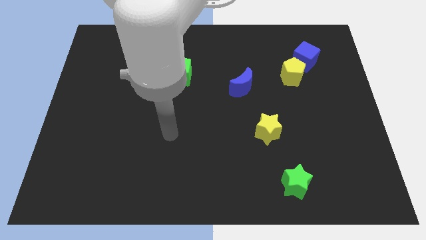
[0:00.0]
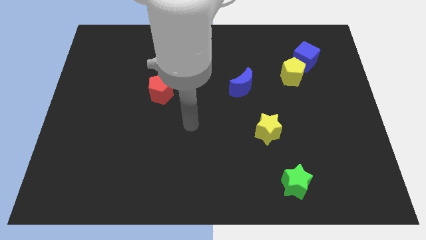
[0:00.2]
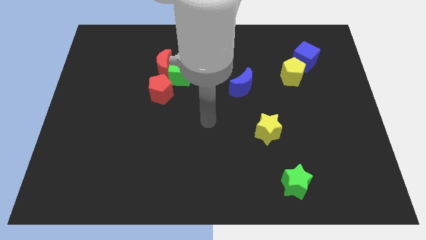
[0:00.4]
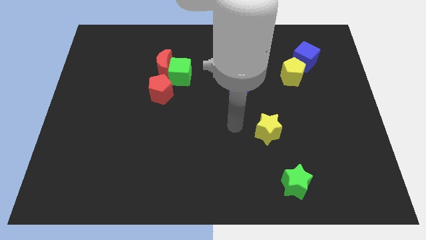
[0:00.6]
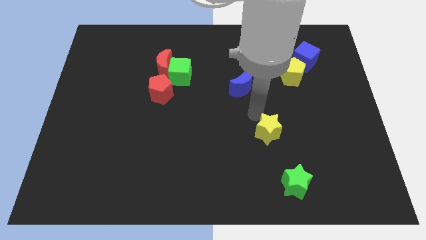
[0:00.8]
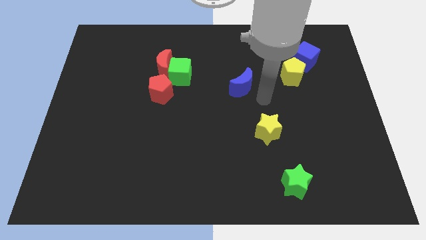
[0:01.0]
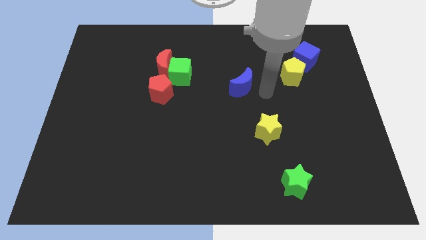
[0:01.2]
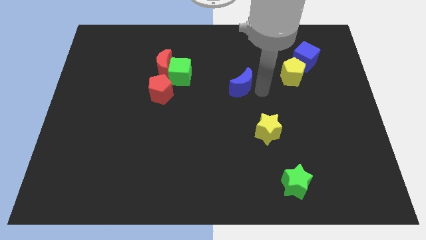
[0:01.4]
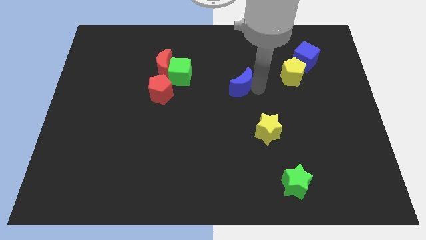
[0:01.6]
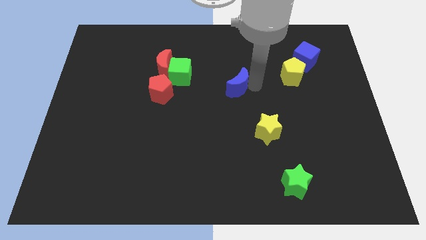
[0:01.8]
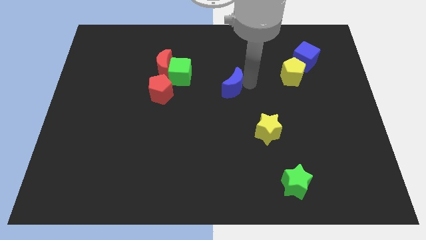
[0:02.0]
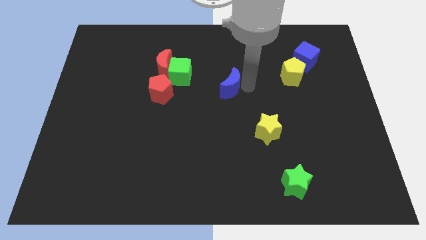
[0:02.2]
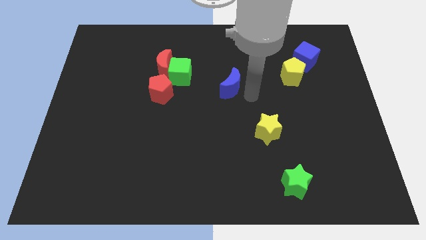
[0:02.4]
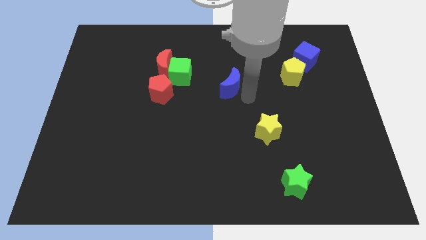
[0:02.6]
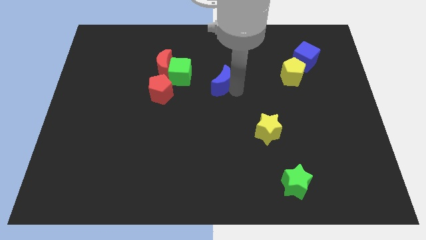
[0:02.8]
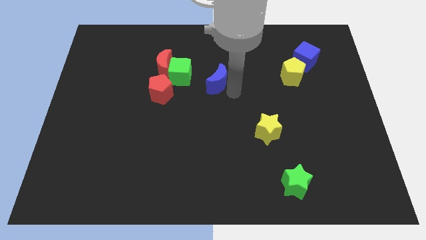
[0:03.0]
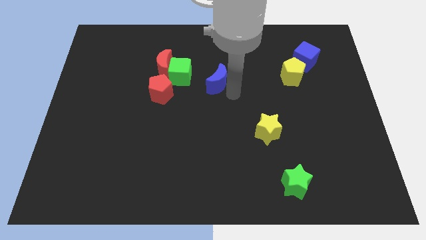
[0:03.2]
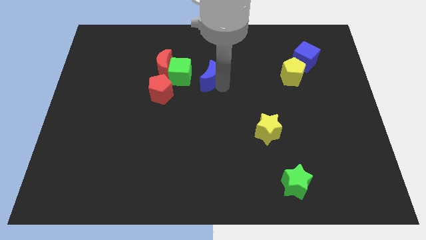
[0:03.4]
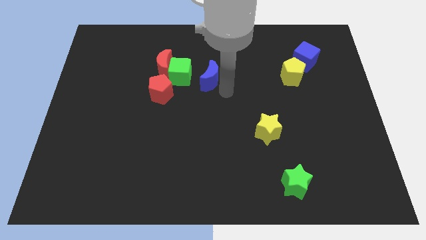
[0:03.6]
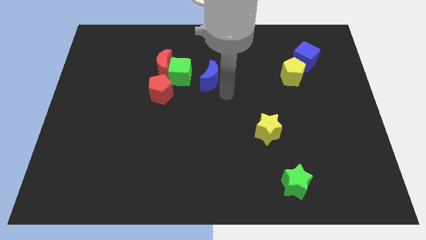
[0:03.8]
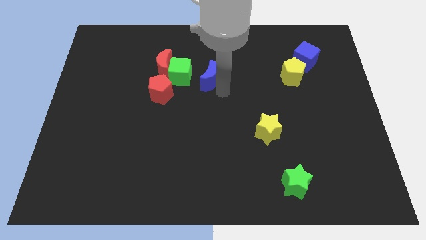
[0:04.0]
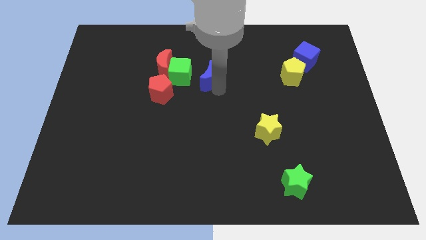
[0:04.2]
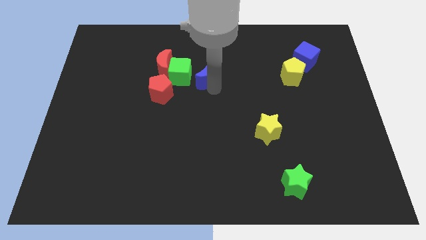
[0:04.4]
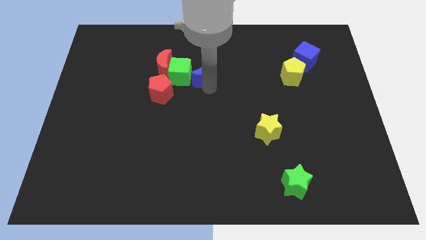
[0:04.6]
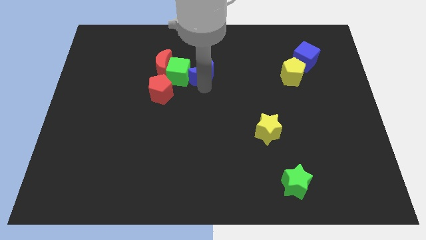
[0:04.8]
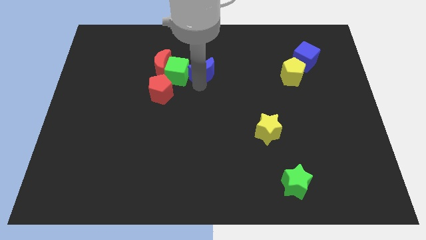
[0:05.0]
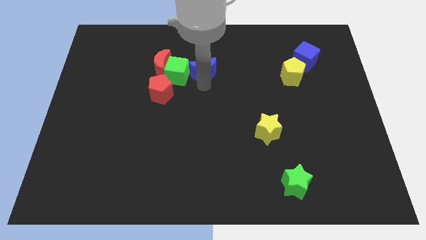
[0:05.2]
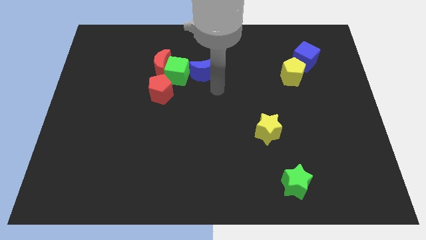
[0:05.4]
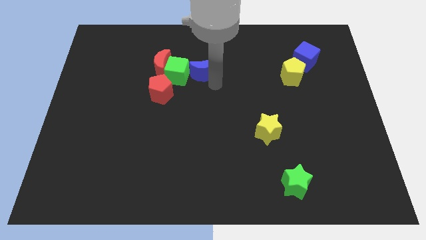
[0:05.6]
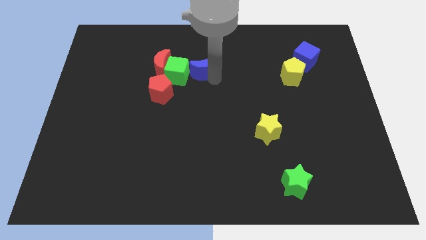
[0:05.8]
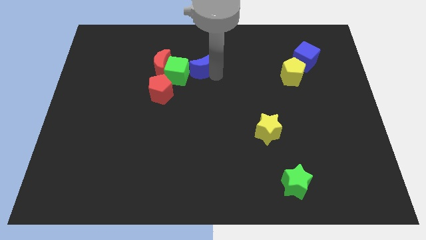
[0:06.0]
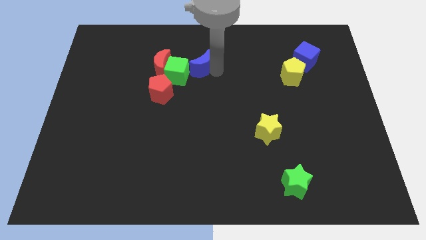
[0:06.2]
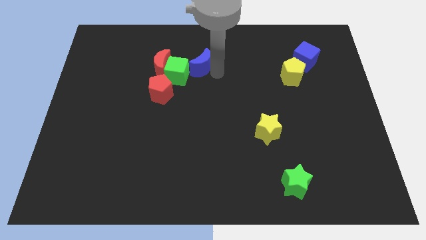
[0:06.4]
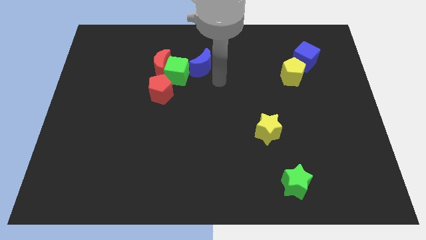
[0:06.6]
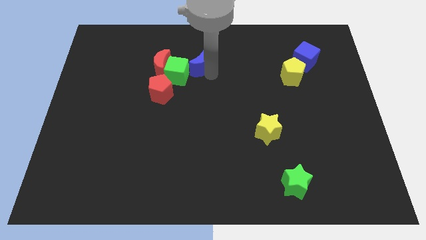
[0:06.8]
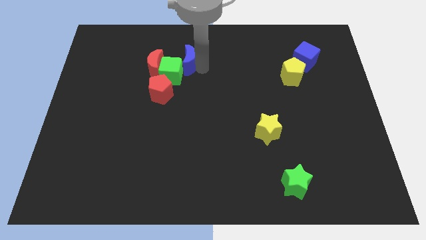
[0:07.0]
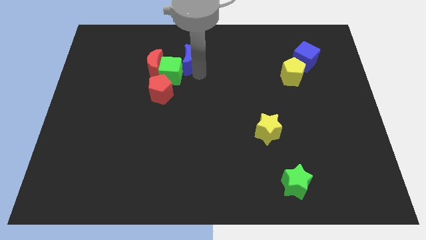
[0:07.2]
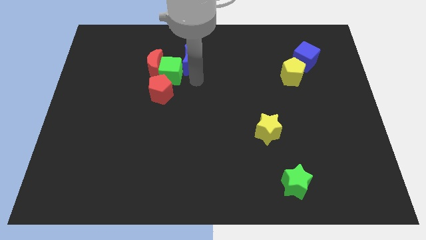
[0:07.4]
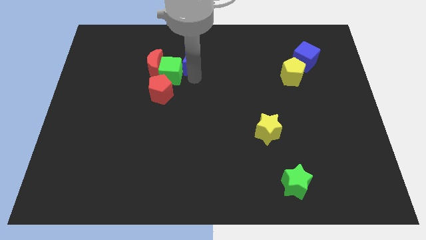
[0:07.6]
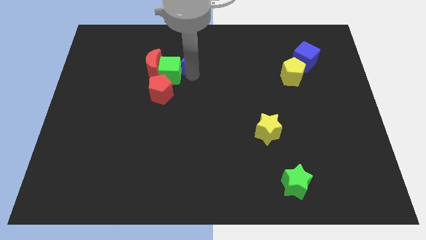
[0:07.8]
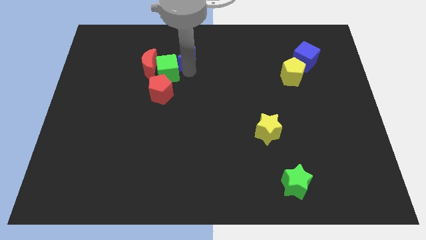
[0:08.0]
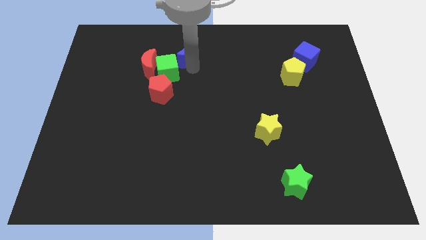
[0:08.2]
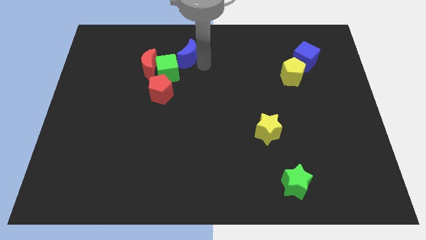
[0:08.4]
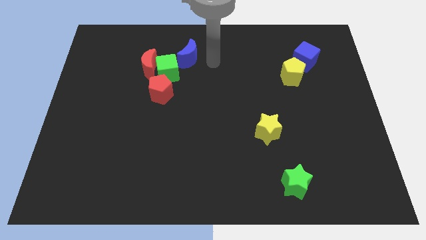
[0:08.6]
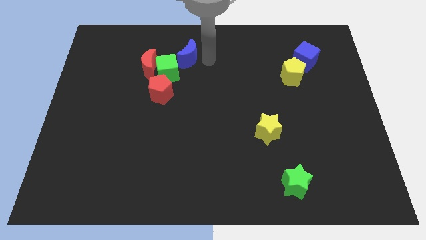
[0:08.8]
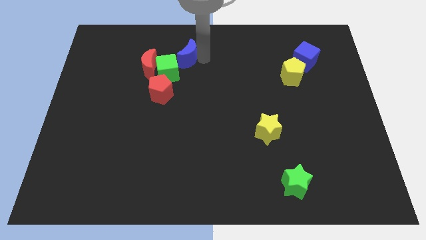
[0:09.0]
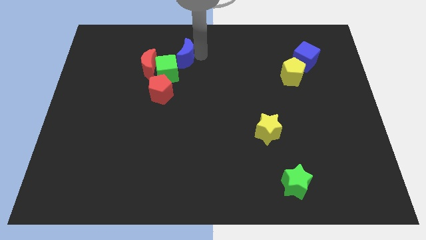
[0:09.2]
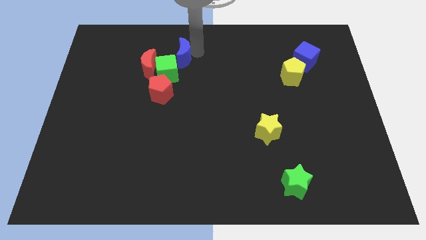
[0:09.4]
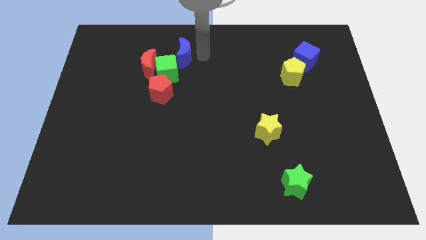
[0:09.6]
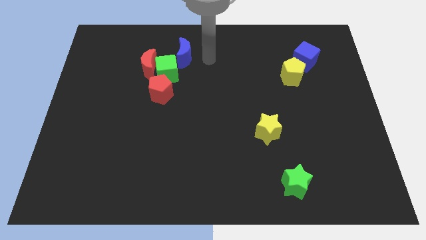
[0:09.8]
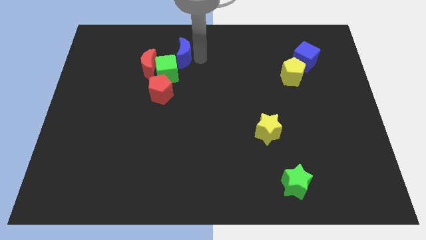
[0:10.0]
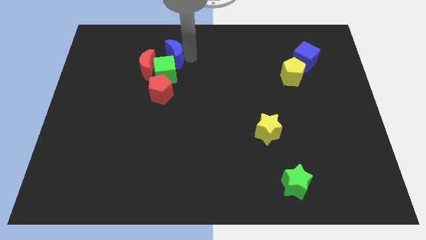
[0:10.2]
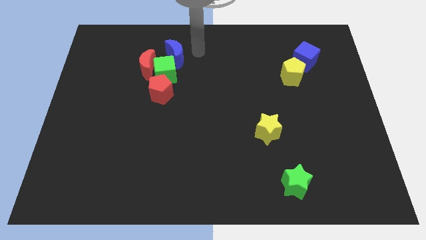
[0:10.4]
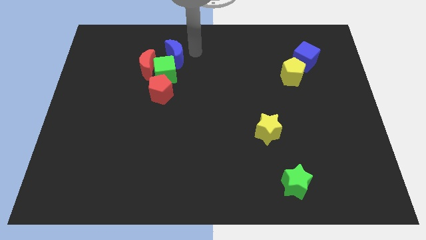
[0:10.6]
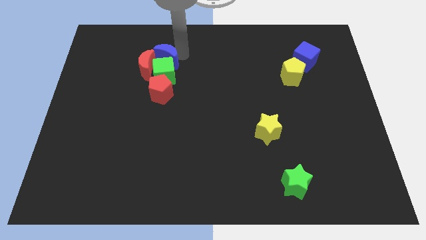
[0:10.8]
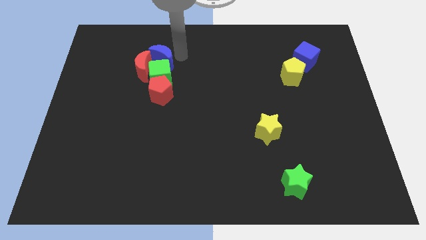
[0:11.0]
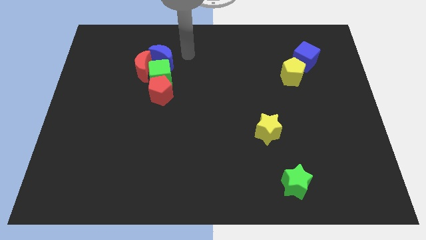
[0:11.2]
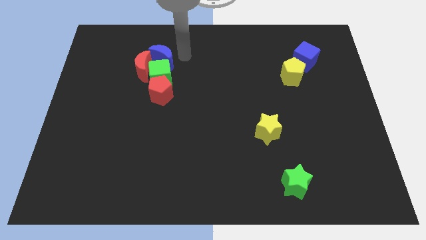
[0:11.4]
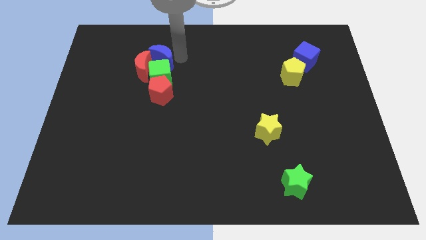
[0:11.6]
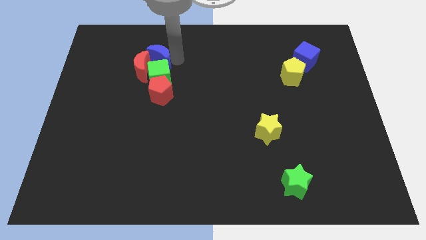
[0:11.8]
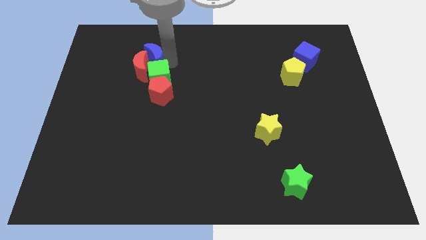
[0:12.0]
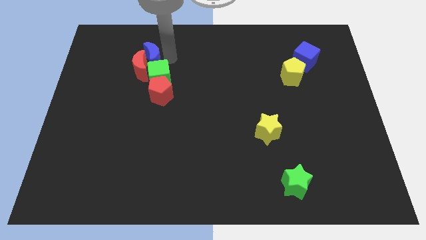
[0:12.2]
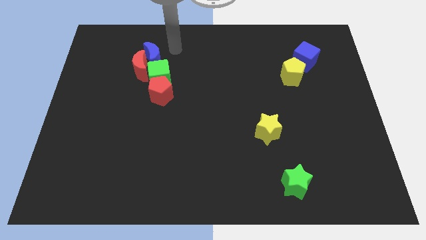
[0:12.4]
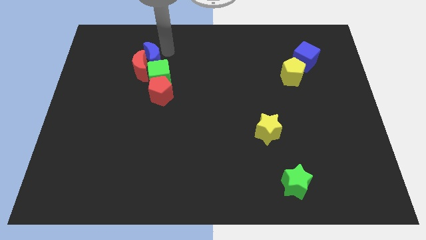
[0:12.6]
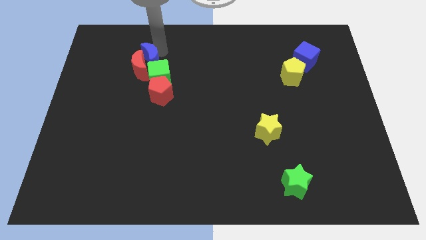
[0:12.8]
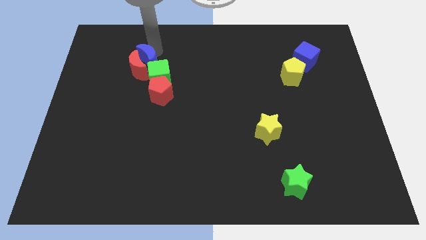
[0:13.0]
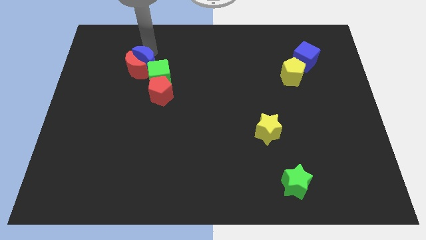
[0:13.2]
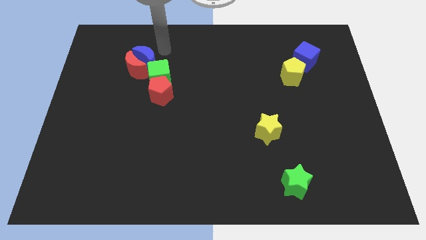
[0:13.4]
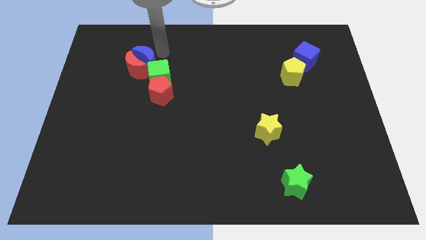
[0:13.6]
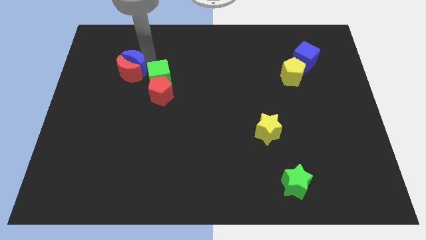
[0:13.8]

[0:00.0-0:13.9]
slide the blue moon left of the green cube

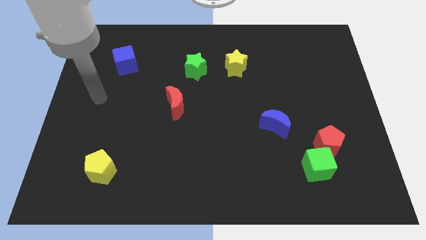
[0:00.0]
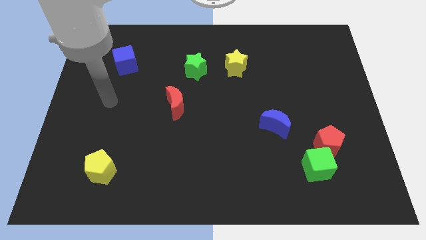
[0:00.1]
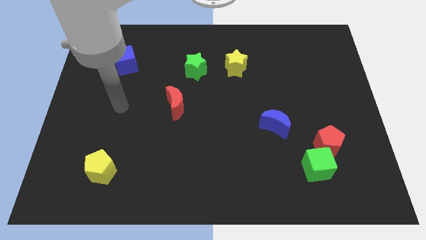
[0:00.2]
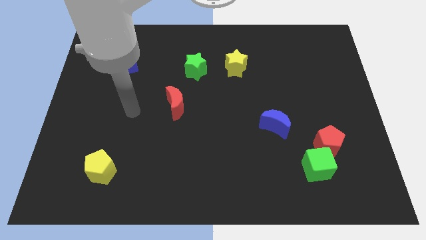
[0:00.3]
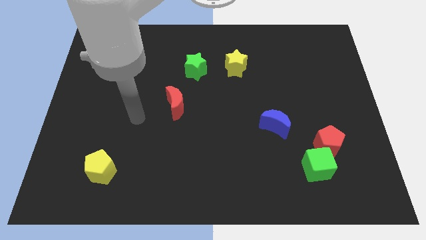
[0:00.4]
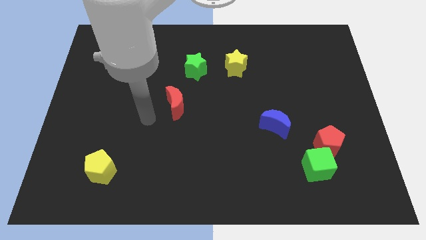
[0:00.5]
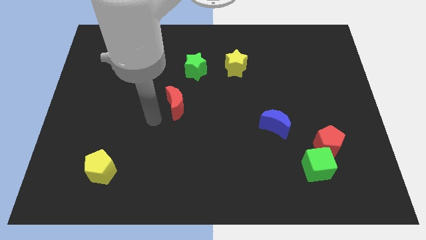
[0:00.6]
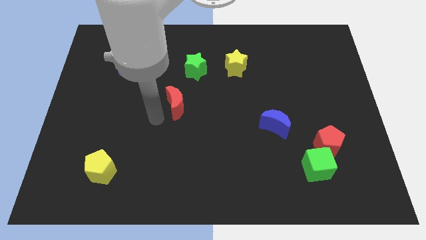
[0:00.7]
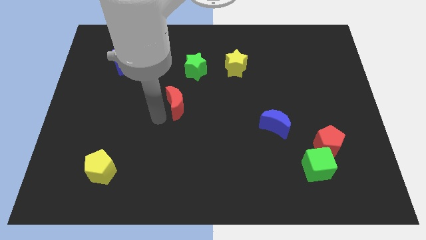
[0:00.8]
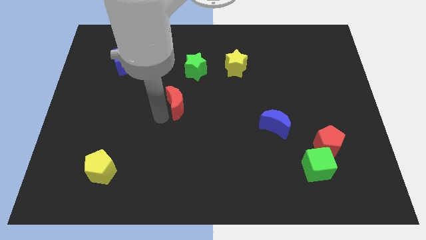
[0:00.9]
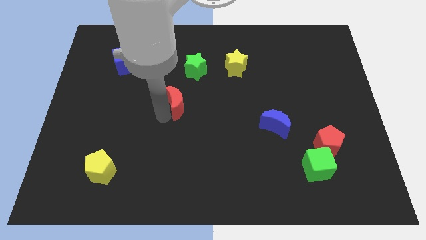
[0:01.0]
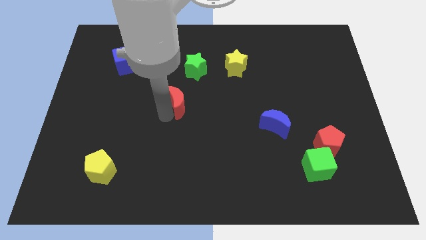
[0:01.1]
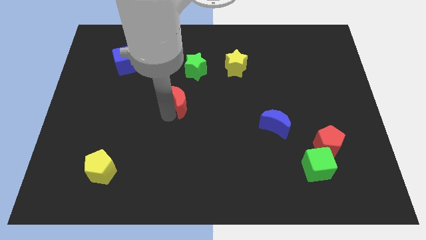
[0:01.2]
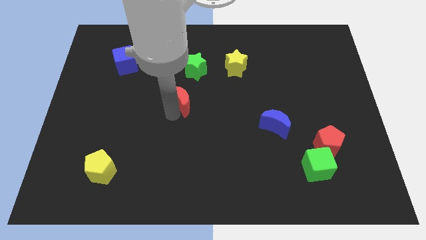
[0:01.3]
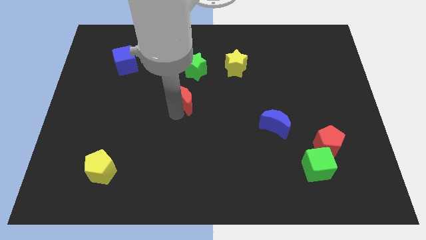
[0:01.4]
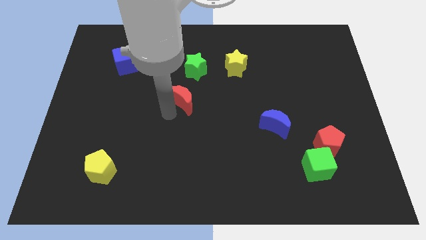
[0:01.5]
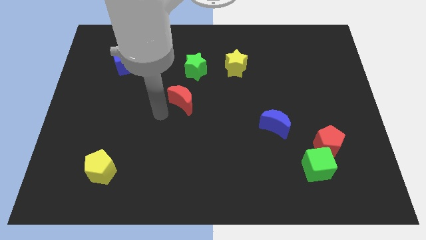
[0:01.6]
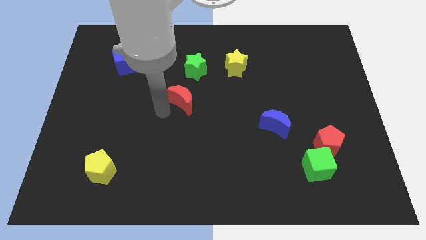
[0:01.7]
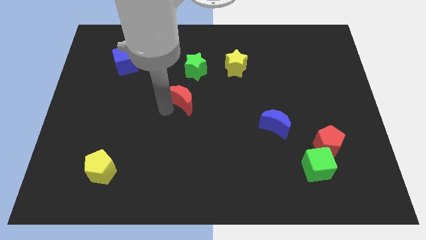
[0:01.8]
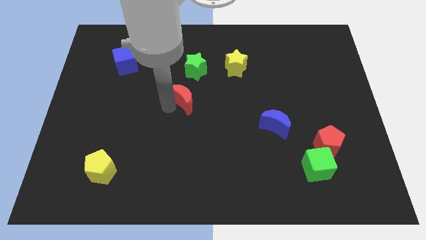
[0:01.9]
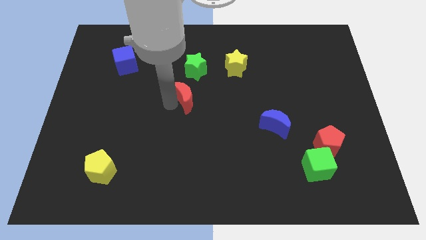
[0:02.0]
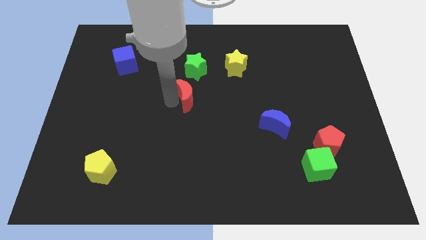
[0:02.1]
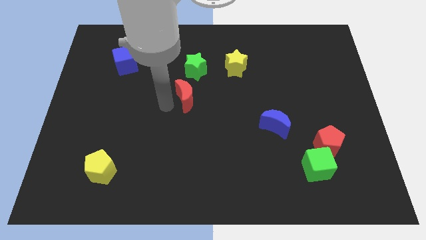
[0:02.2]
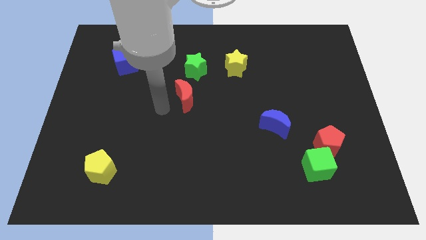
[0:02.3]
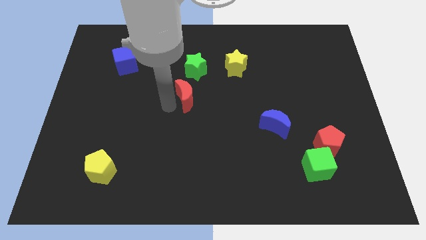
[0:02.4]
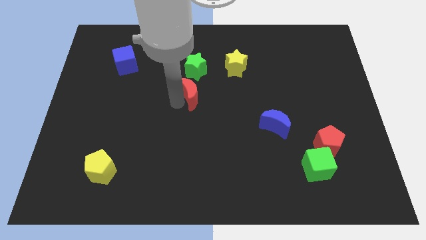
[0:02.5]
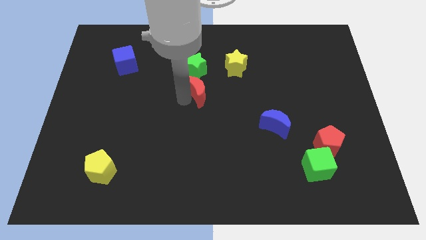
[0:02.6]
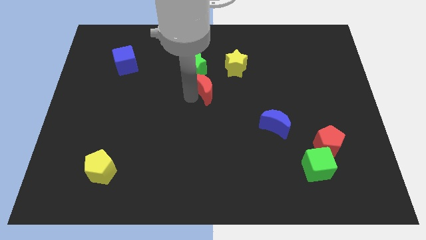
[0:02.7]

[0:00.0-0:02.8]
slide the red moon to the bottom right side of the green star
